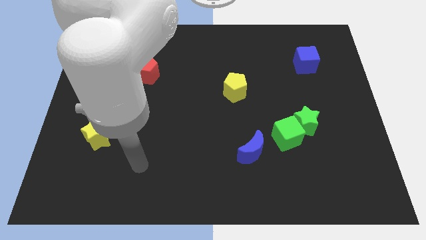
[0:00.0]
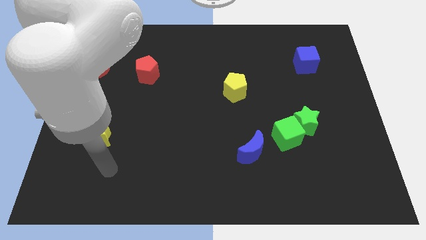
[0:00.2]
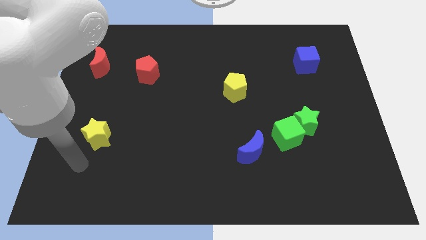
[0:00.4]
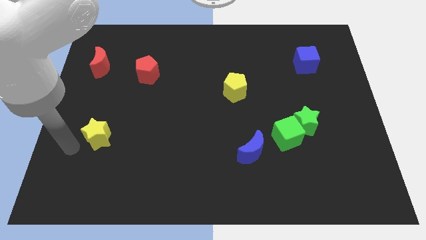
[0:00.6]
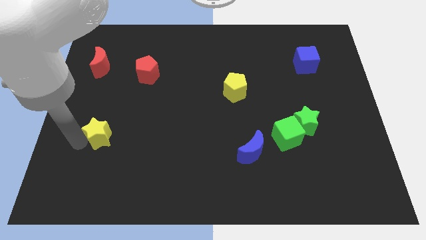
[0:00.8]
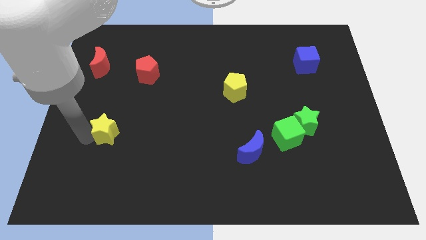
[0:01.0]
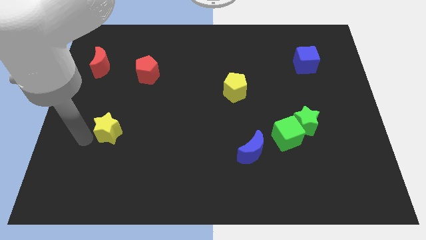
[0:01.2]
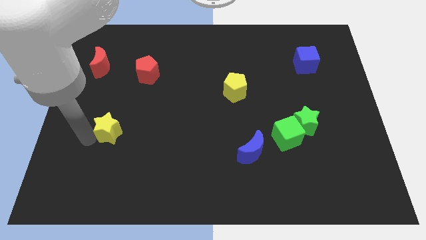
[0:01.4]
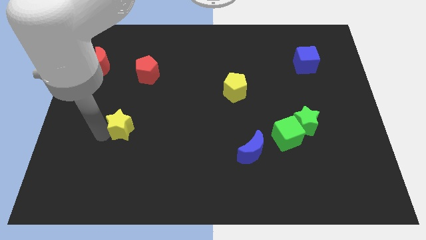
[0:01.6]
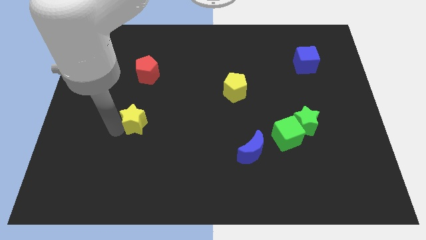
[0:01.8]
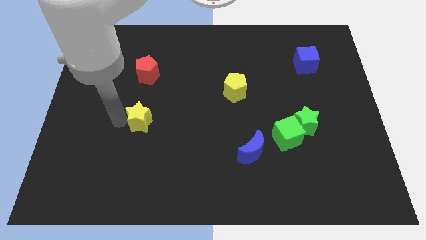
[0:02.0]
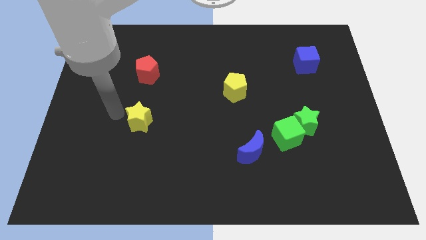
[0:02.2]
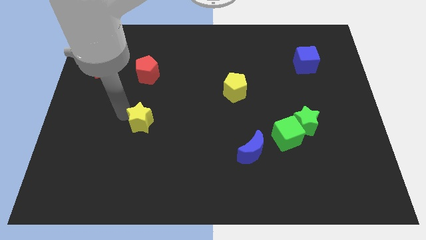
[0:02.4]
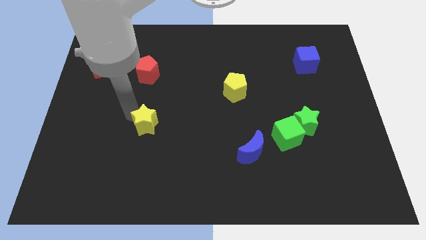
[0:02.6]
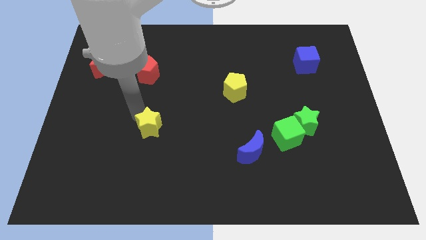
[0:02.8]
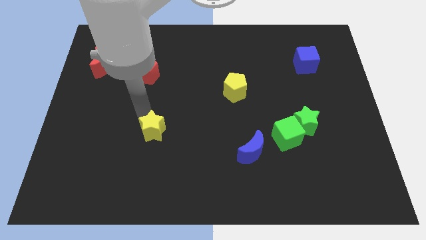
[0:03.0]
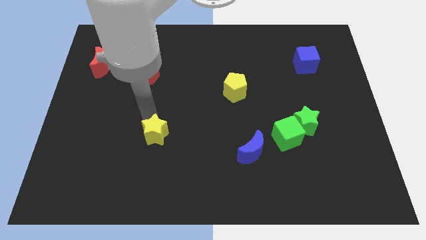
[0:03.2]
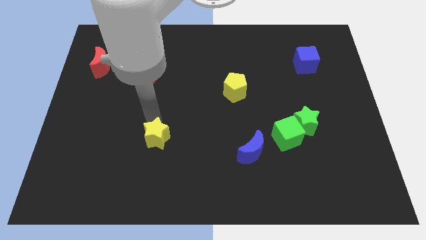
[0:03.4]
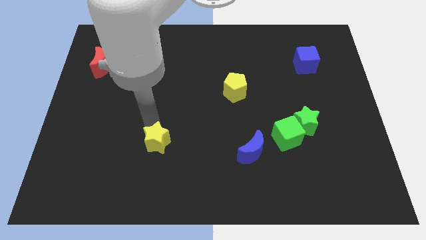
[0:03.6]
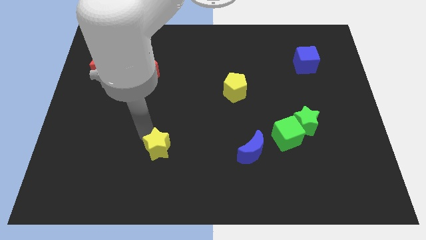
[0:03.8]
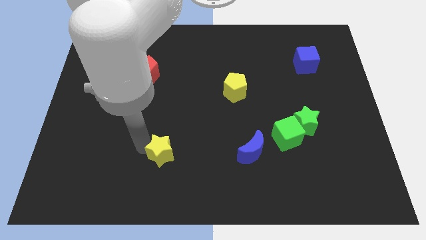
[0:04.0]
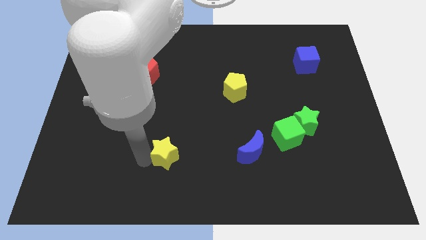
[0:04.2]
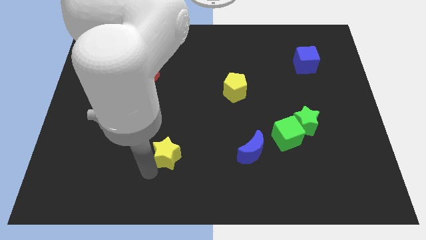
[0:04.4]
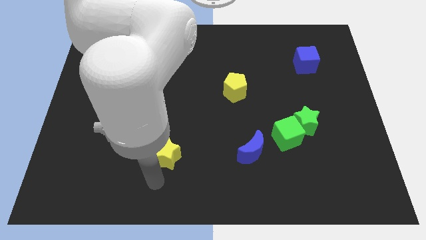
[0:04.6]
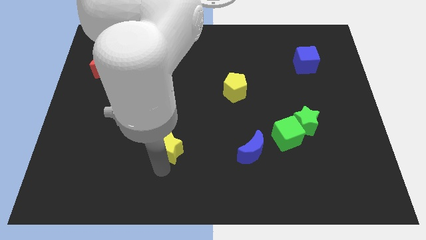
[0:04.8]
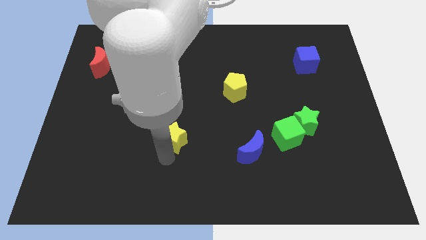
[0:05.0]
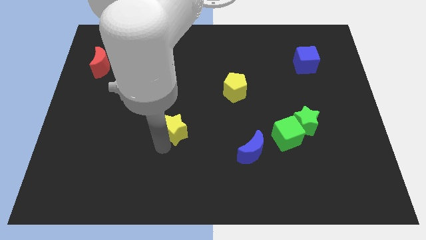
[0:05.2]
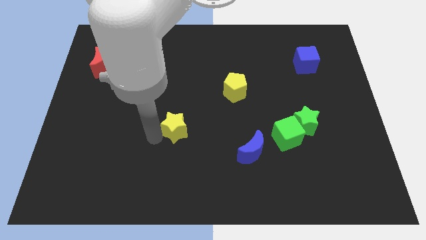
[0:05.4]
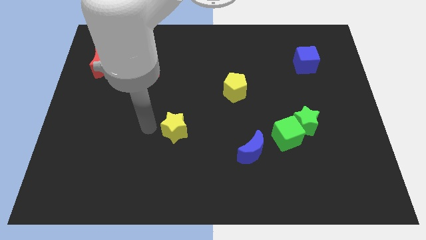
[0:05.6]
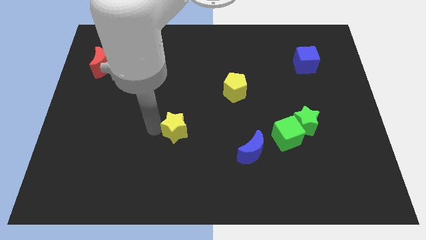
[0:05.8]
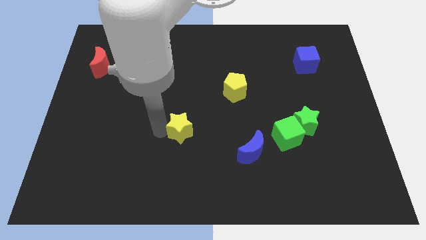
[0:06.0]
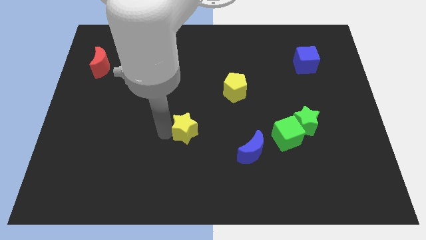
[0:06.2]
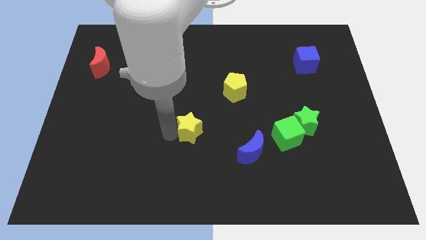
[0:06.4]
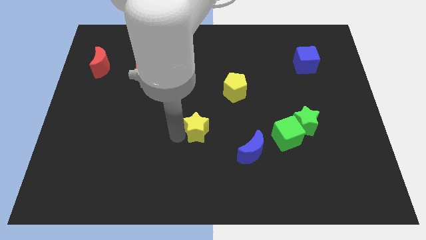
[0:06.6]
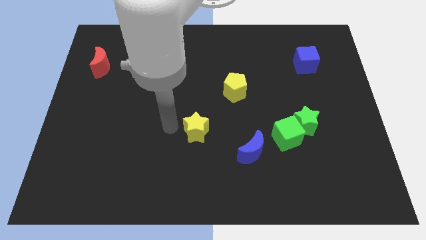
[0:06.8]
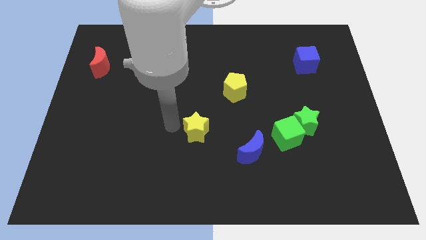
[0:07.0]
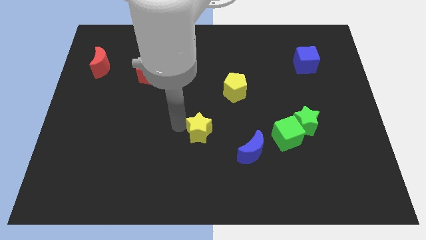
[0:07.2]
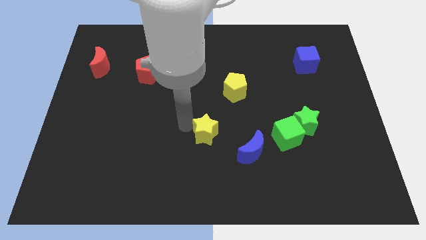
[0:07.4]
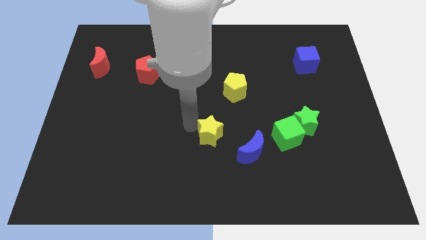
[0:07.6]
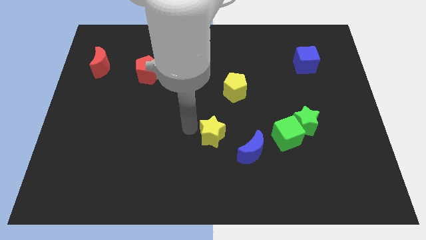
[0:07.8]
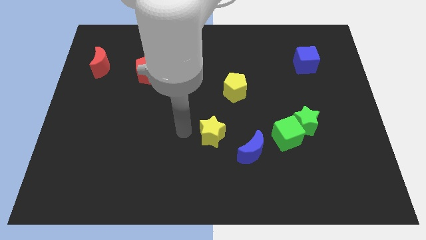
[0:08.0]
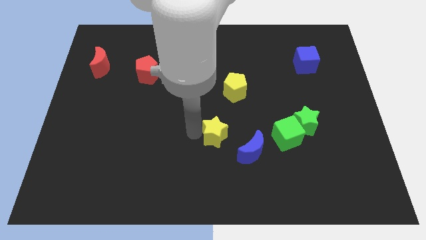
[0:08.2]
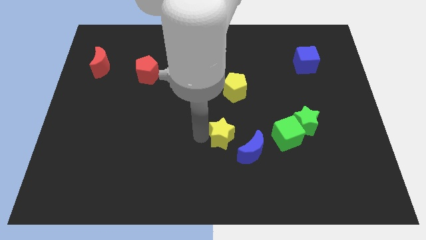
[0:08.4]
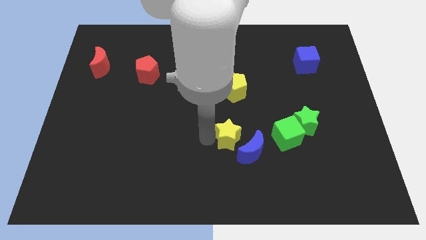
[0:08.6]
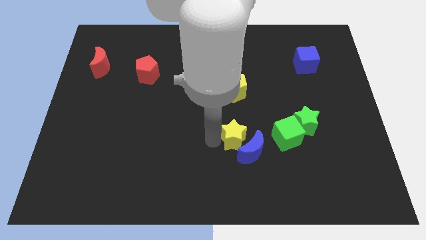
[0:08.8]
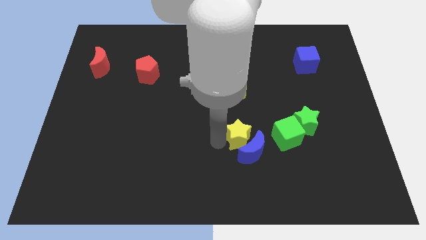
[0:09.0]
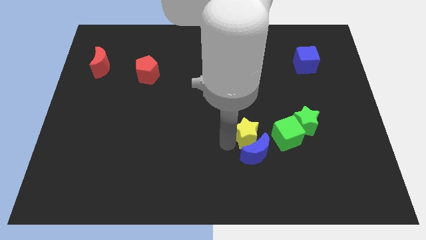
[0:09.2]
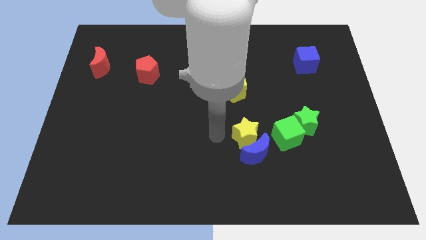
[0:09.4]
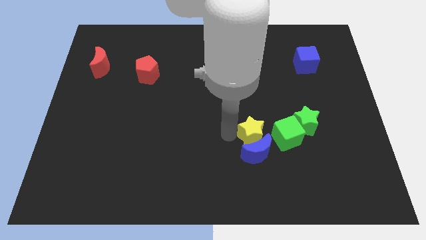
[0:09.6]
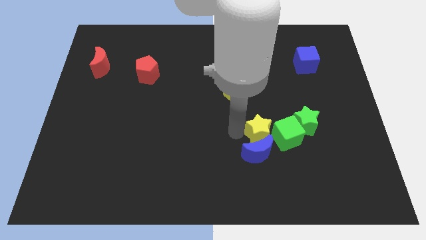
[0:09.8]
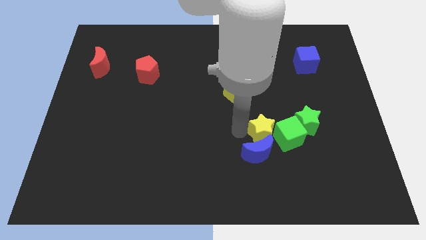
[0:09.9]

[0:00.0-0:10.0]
move the yellow star close to the green cube

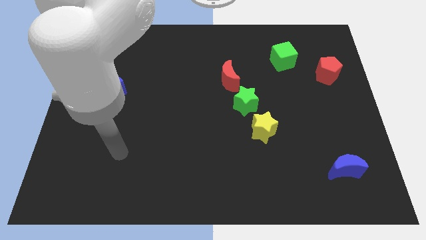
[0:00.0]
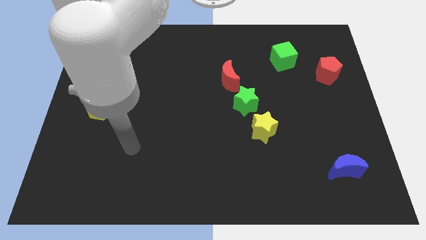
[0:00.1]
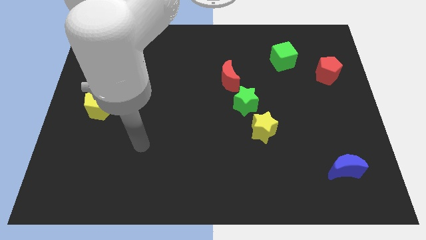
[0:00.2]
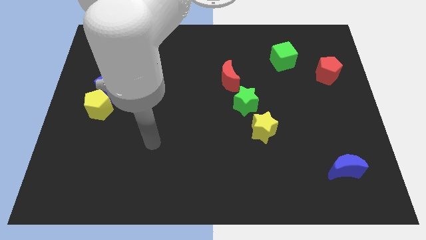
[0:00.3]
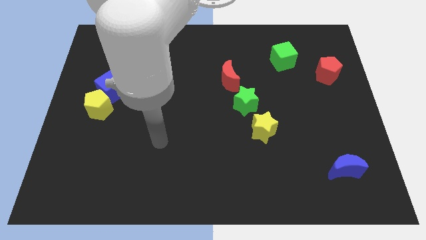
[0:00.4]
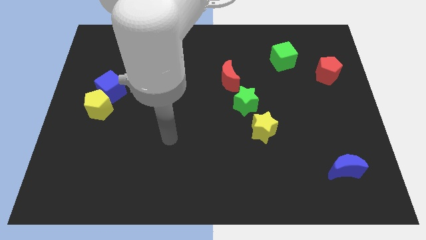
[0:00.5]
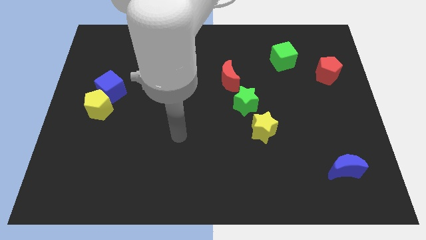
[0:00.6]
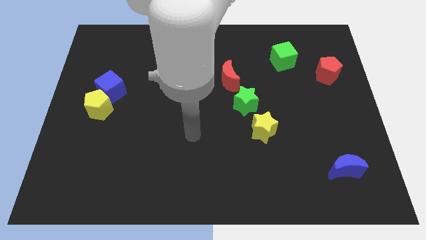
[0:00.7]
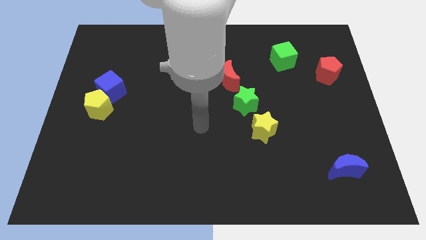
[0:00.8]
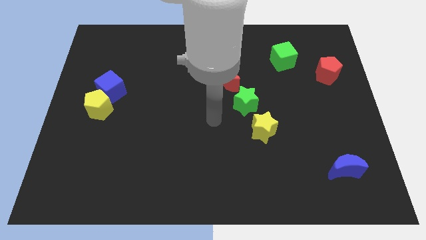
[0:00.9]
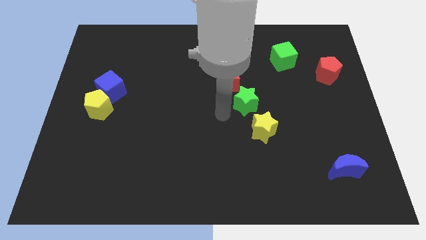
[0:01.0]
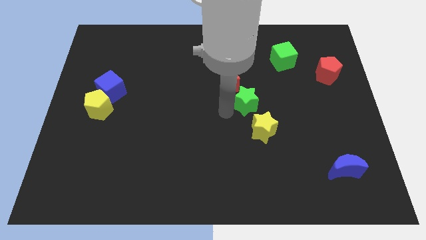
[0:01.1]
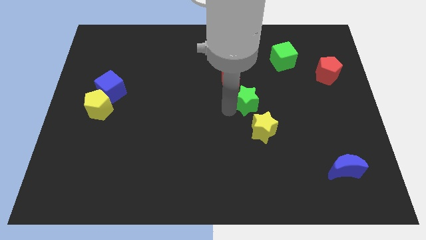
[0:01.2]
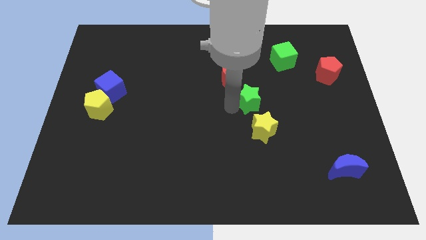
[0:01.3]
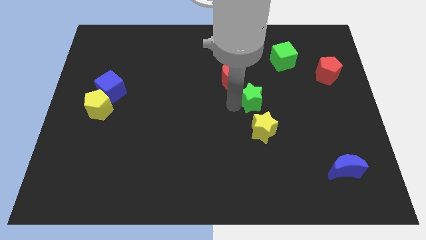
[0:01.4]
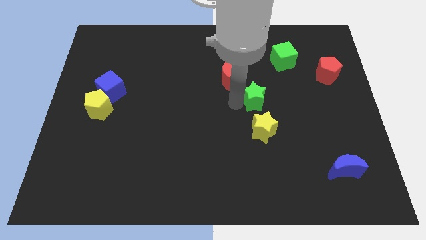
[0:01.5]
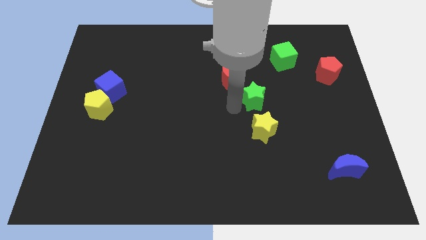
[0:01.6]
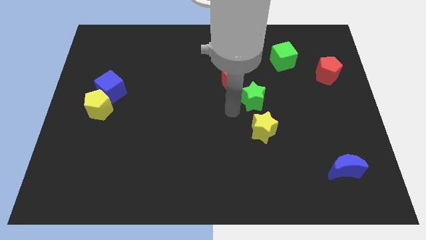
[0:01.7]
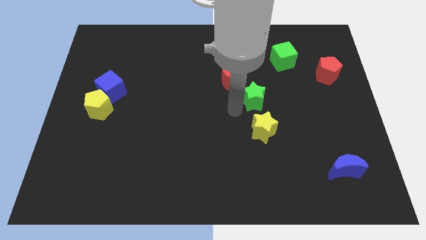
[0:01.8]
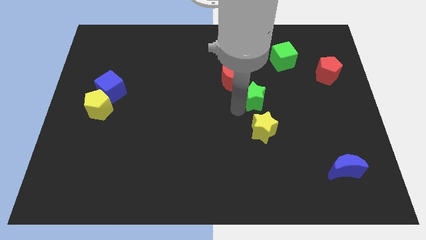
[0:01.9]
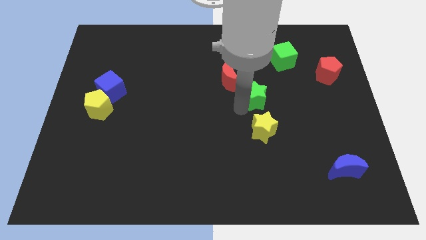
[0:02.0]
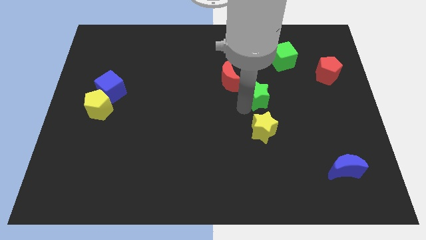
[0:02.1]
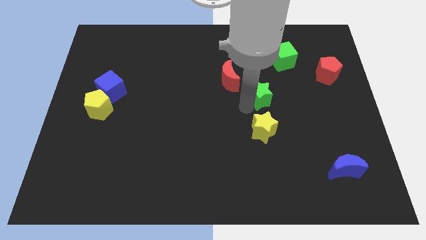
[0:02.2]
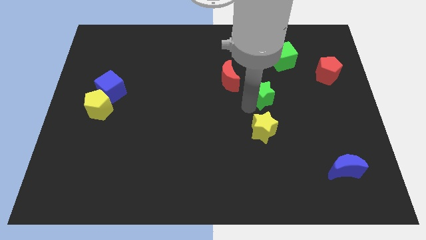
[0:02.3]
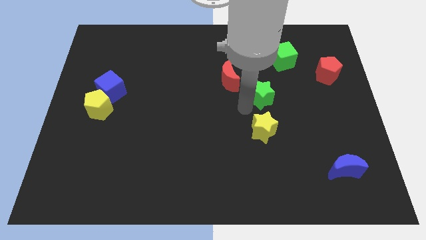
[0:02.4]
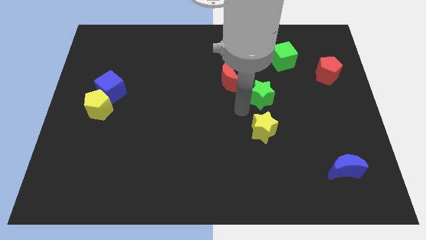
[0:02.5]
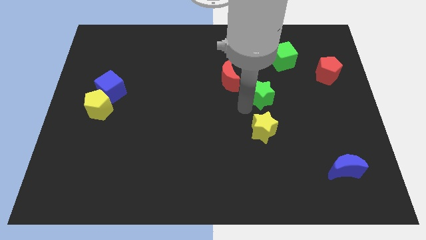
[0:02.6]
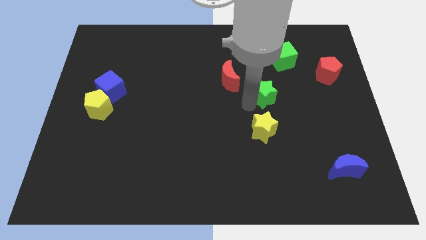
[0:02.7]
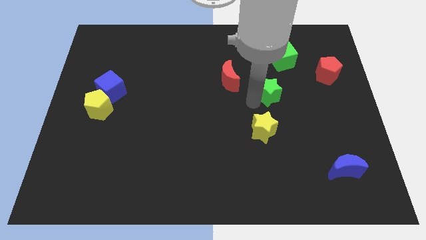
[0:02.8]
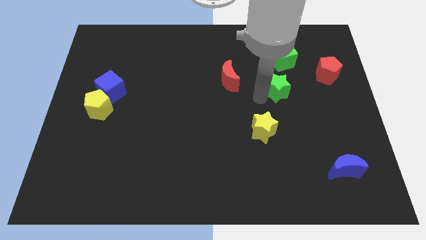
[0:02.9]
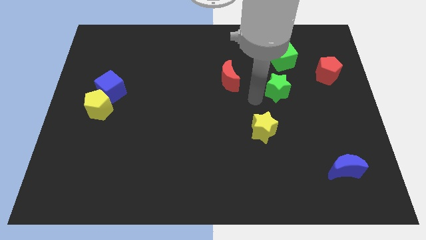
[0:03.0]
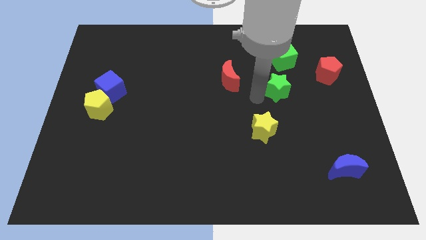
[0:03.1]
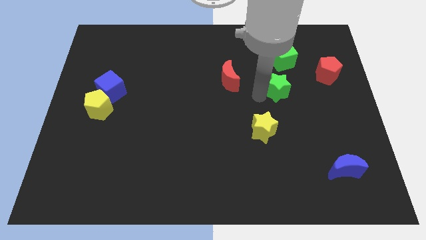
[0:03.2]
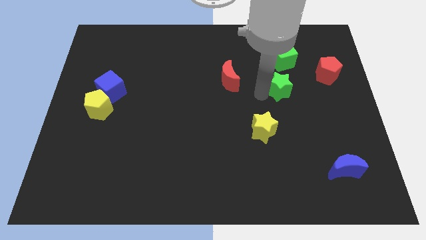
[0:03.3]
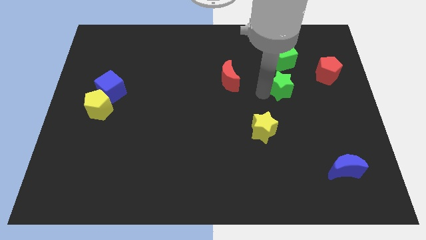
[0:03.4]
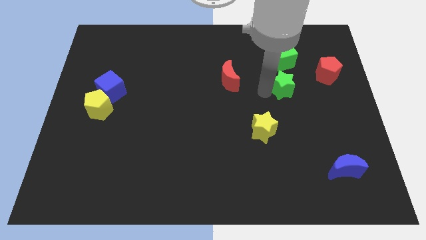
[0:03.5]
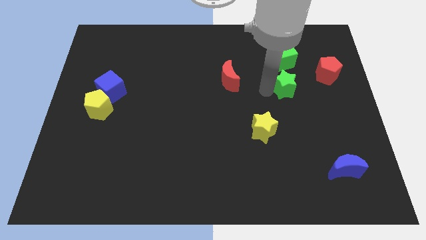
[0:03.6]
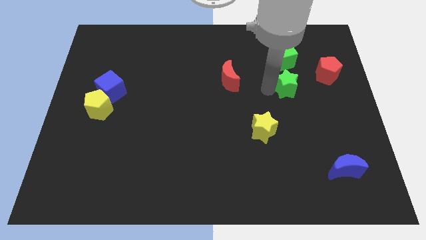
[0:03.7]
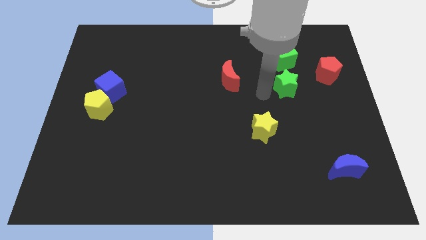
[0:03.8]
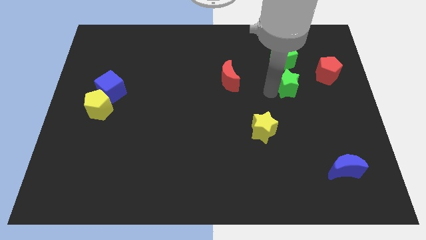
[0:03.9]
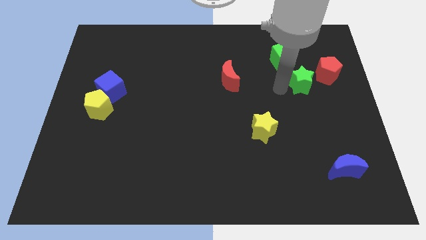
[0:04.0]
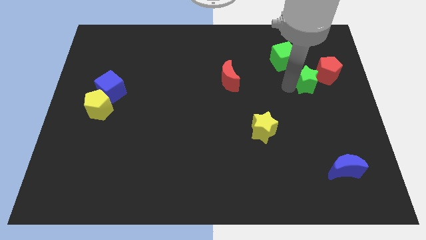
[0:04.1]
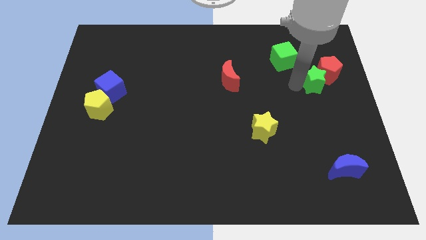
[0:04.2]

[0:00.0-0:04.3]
put the green star towards the red pentagon
